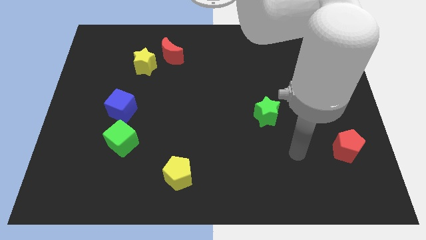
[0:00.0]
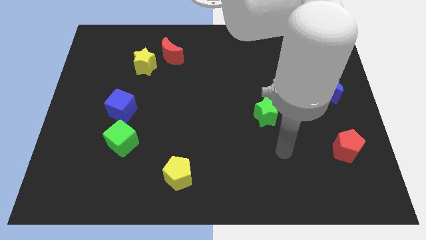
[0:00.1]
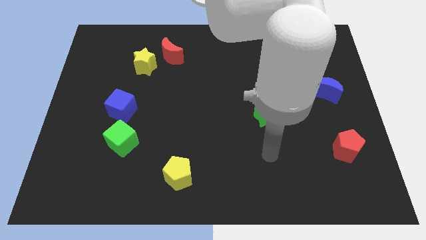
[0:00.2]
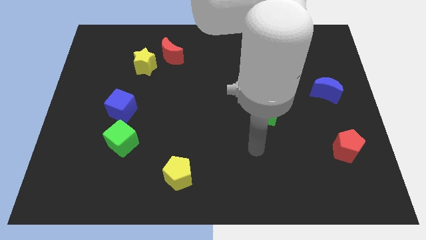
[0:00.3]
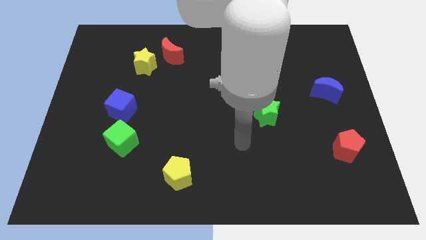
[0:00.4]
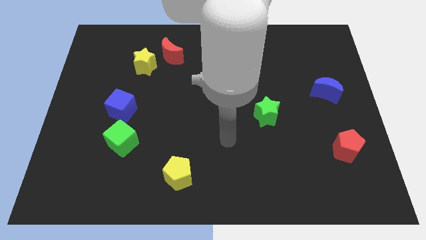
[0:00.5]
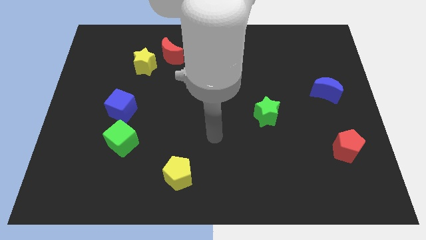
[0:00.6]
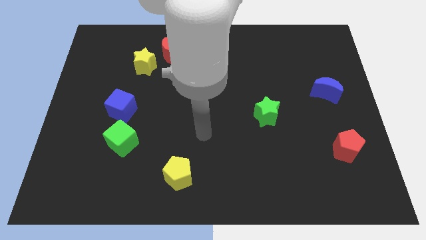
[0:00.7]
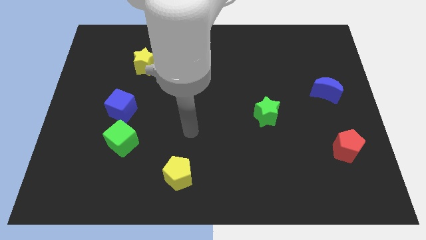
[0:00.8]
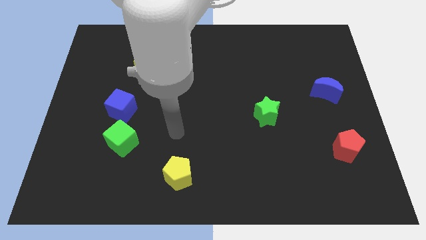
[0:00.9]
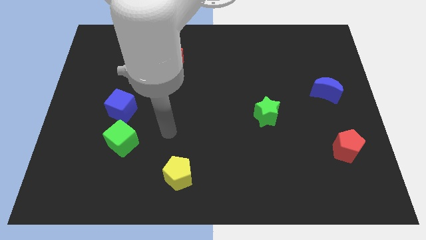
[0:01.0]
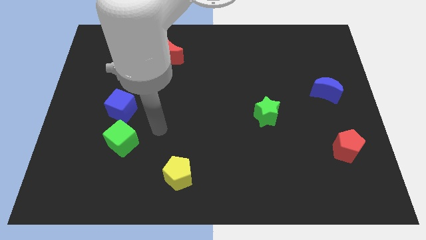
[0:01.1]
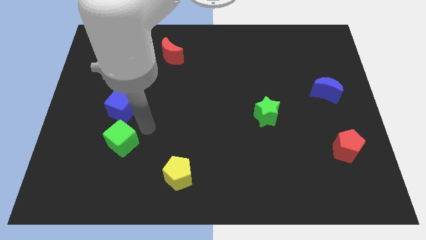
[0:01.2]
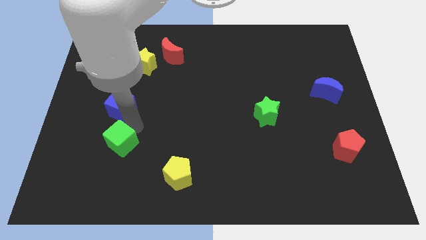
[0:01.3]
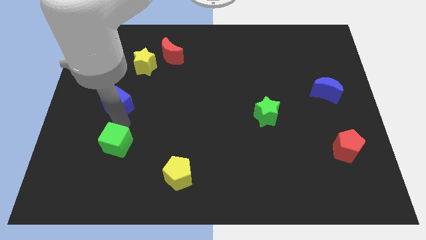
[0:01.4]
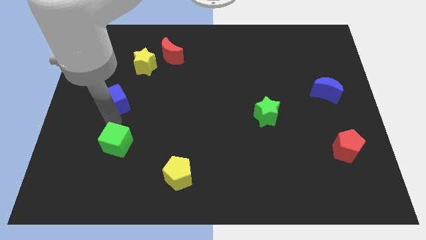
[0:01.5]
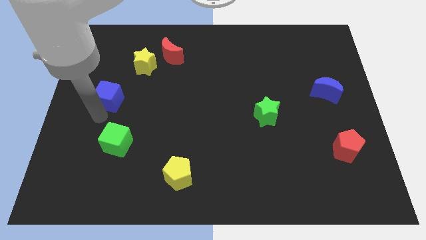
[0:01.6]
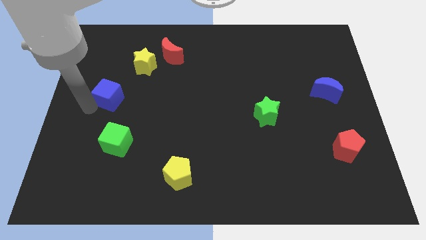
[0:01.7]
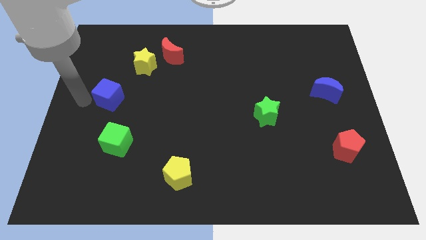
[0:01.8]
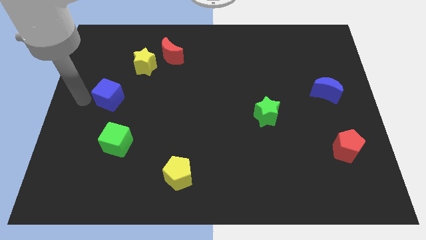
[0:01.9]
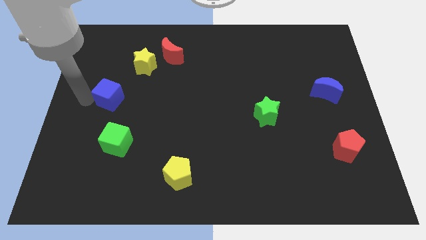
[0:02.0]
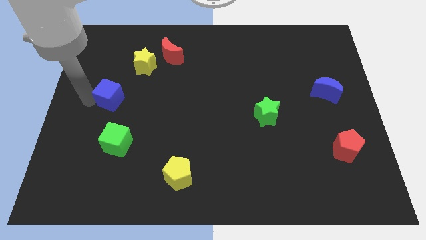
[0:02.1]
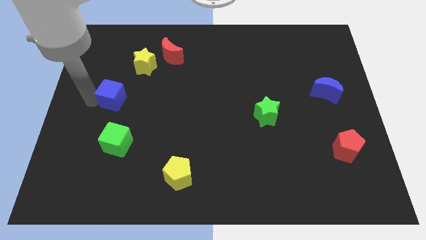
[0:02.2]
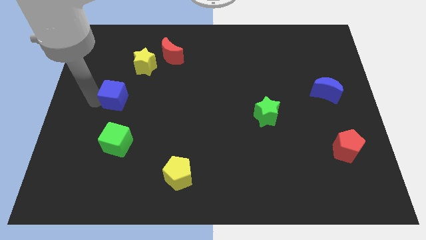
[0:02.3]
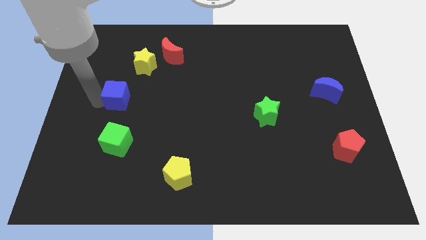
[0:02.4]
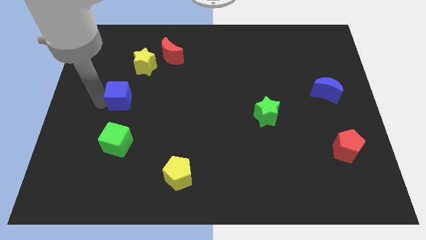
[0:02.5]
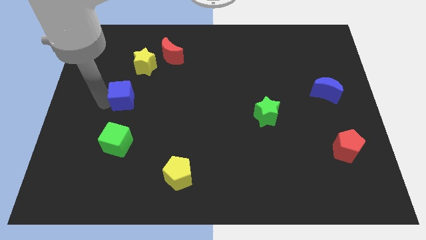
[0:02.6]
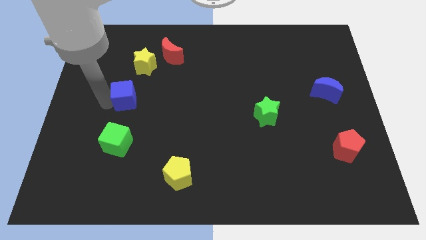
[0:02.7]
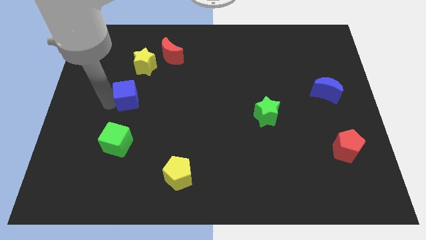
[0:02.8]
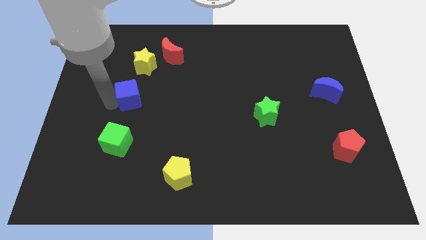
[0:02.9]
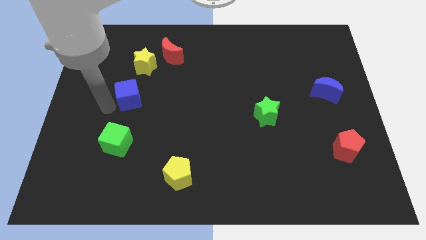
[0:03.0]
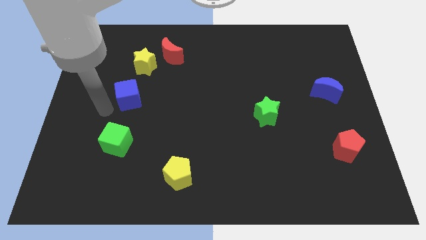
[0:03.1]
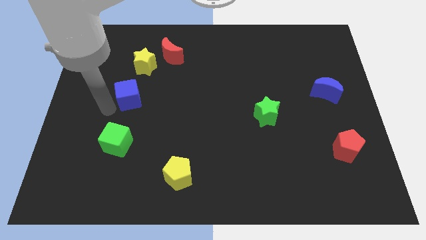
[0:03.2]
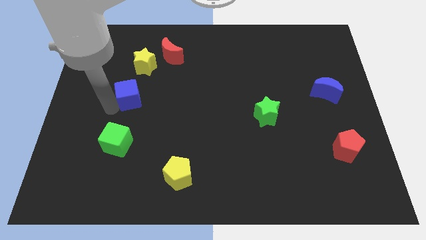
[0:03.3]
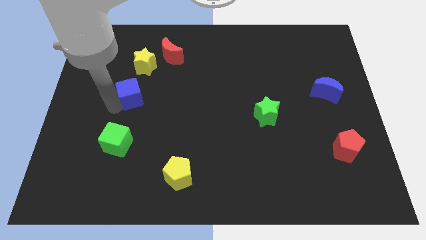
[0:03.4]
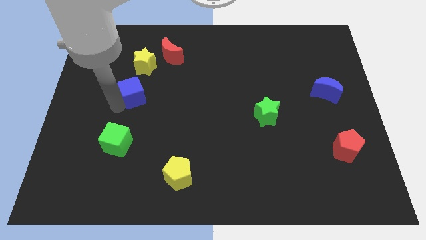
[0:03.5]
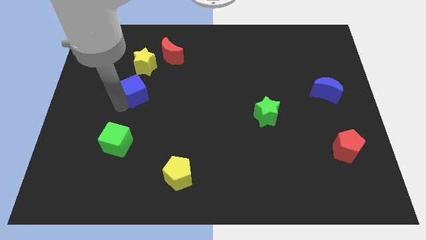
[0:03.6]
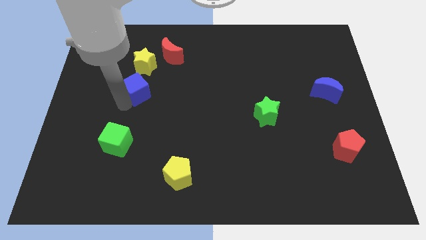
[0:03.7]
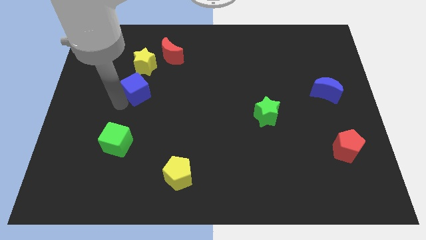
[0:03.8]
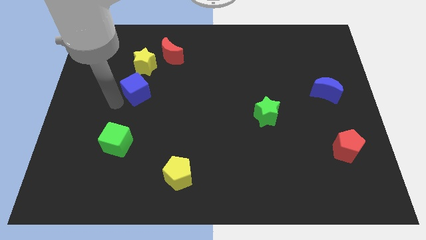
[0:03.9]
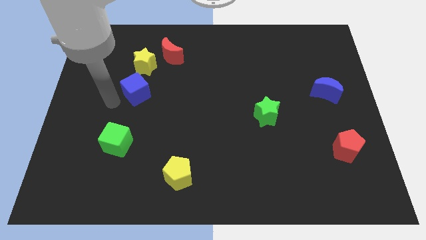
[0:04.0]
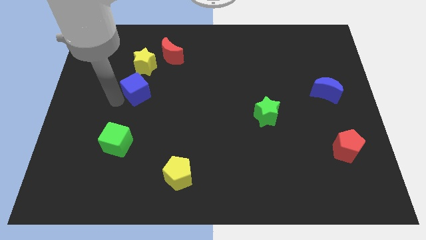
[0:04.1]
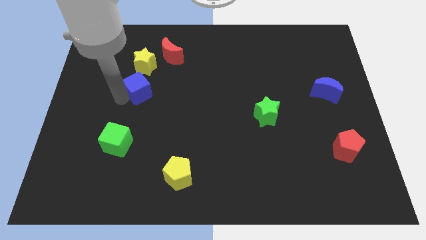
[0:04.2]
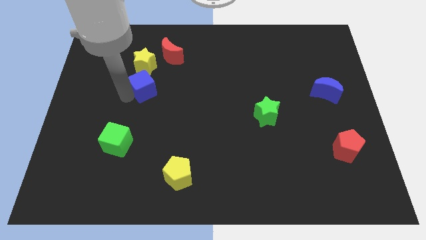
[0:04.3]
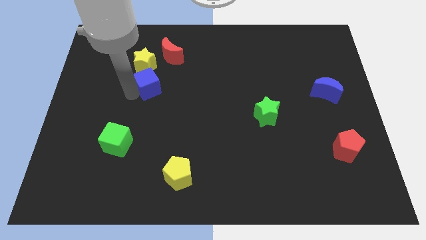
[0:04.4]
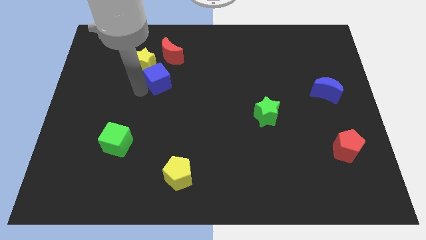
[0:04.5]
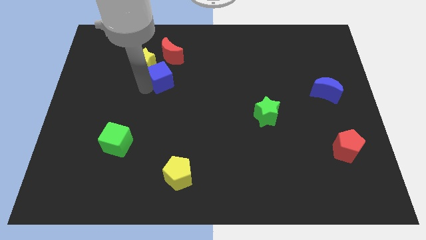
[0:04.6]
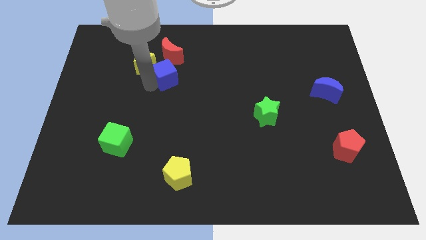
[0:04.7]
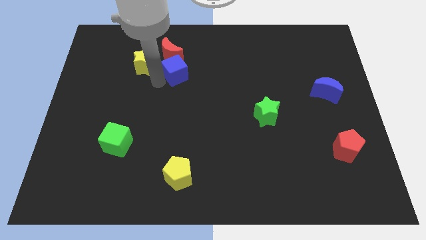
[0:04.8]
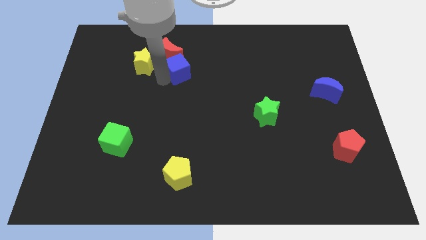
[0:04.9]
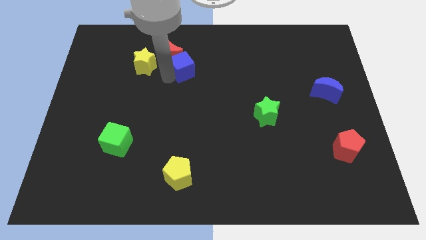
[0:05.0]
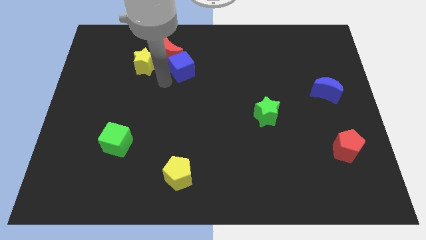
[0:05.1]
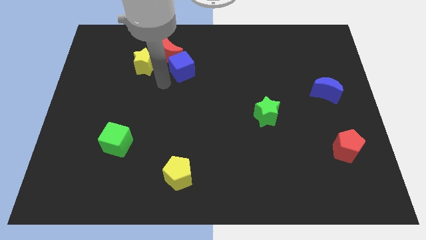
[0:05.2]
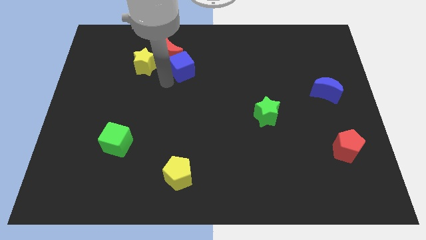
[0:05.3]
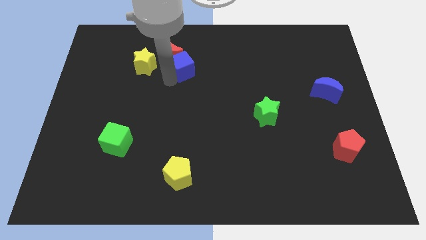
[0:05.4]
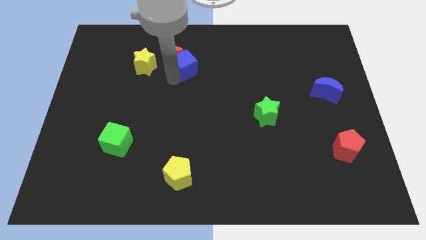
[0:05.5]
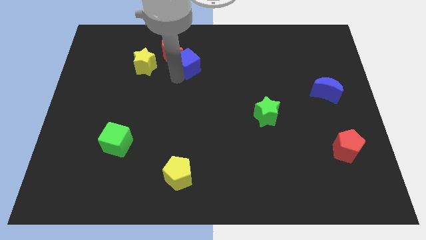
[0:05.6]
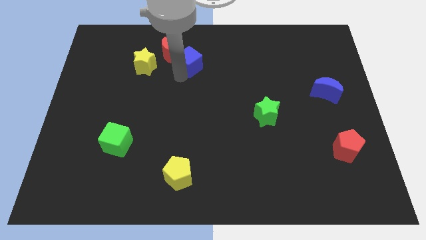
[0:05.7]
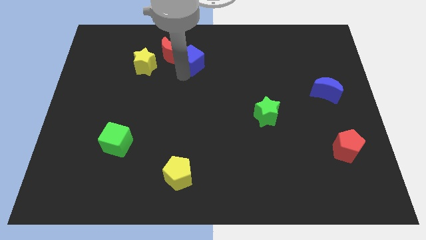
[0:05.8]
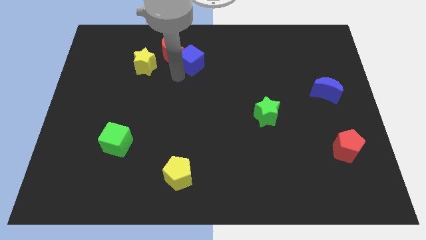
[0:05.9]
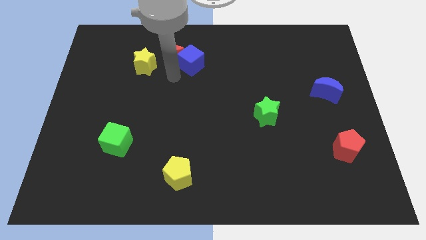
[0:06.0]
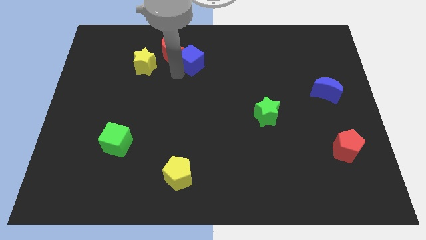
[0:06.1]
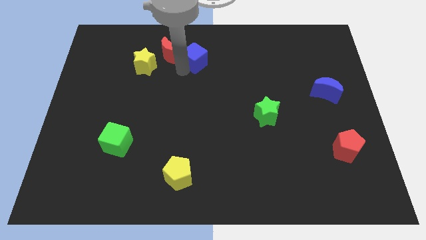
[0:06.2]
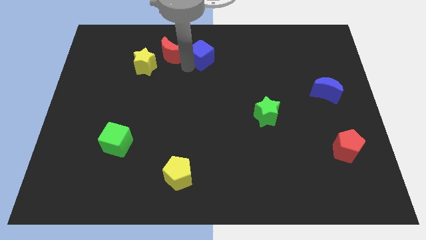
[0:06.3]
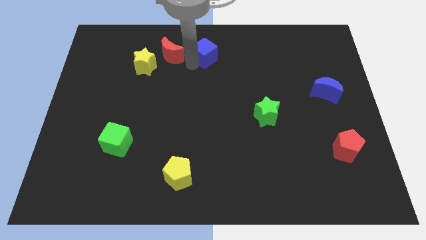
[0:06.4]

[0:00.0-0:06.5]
move the blue cube to the towards your base
